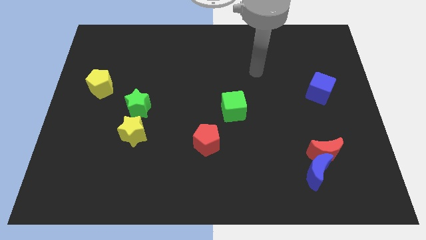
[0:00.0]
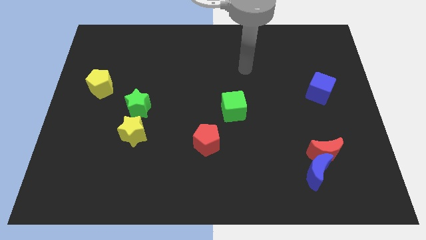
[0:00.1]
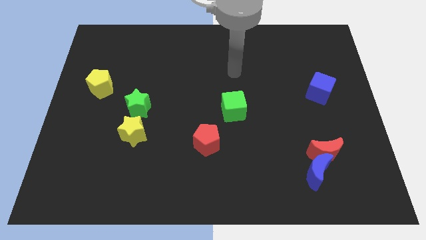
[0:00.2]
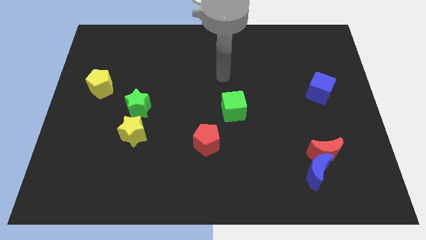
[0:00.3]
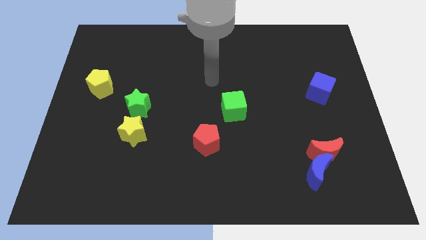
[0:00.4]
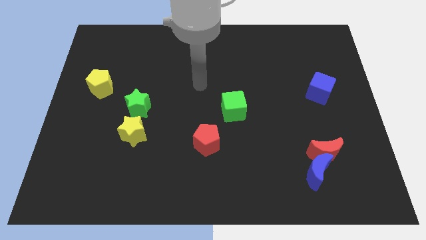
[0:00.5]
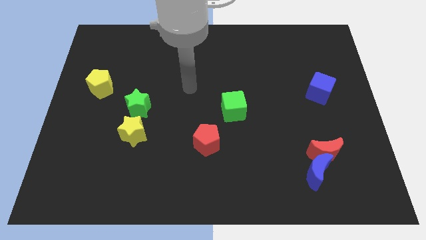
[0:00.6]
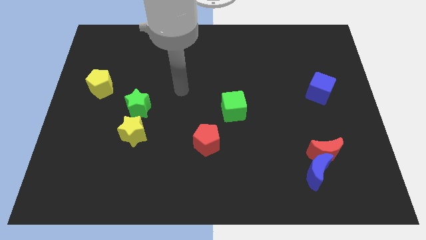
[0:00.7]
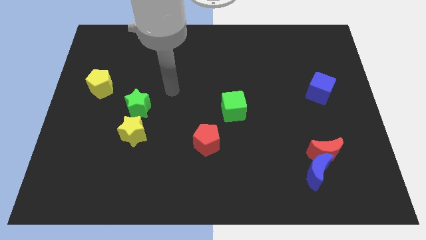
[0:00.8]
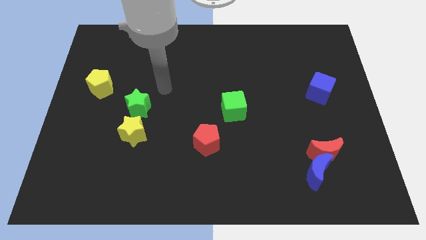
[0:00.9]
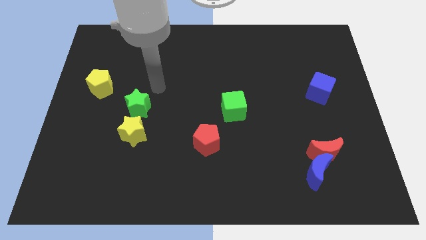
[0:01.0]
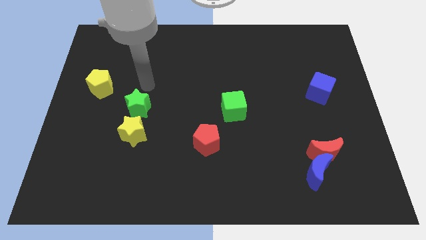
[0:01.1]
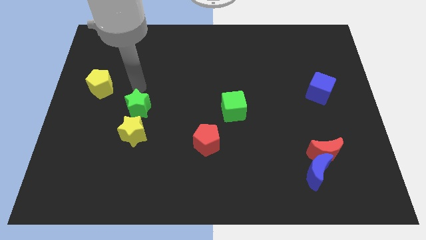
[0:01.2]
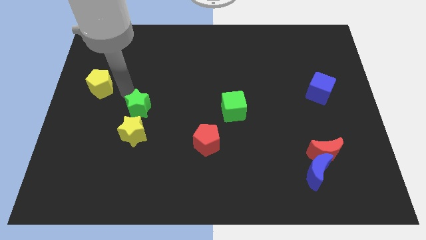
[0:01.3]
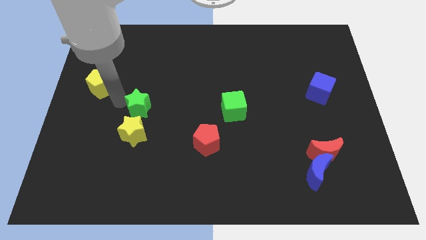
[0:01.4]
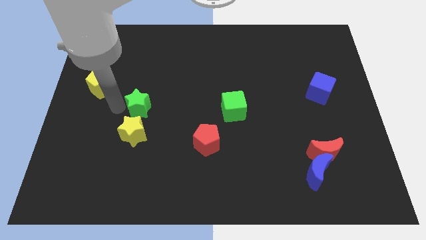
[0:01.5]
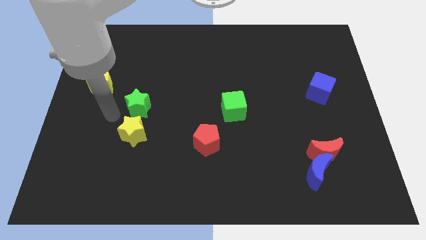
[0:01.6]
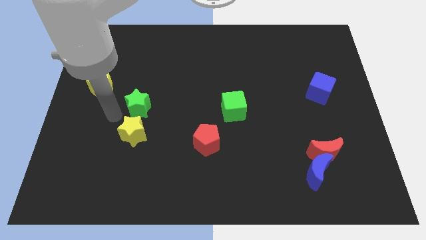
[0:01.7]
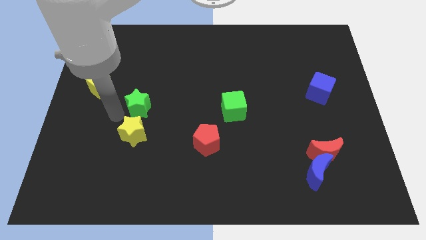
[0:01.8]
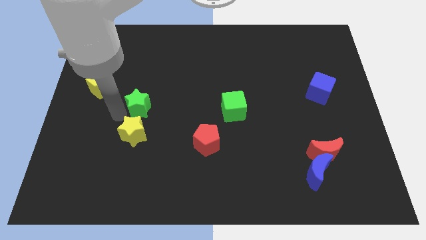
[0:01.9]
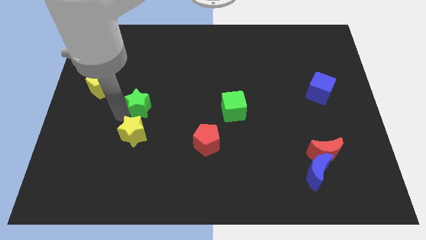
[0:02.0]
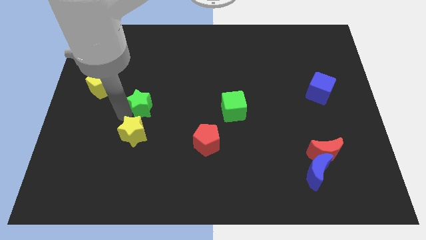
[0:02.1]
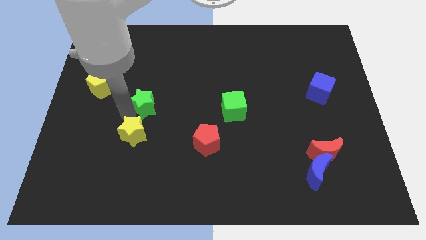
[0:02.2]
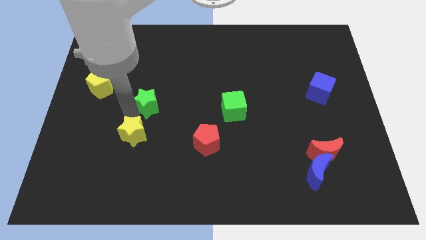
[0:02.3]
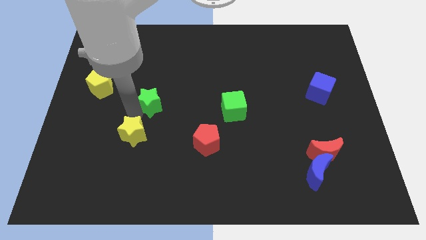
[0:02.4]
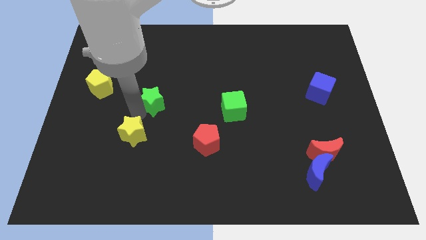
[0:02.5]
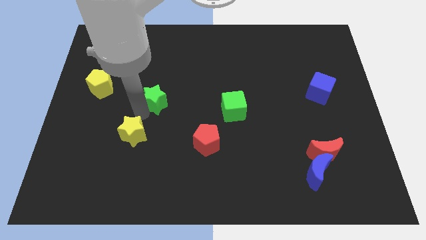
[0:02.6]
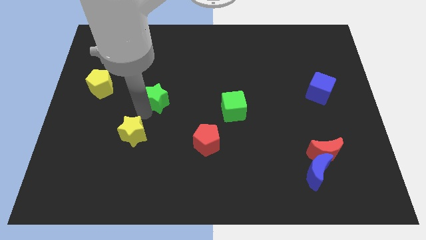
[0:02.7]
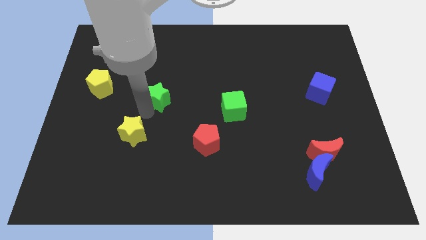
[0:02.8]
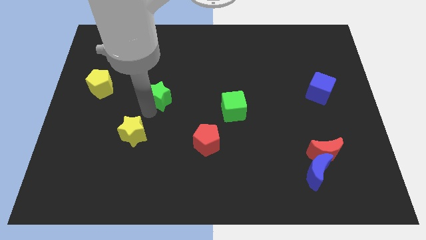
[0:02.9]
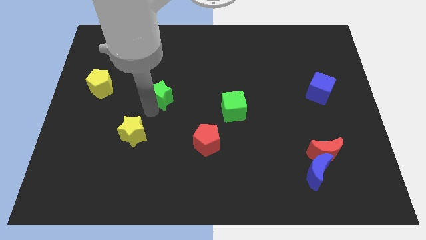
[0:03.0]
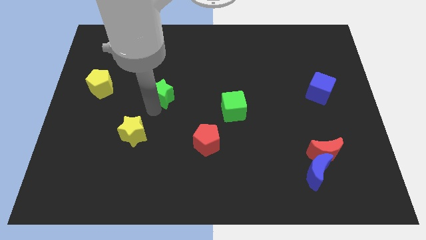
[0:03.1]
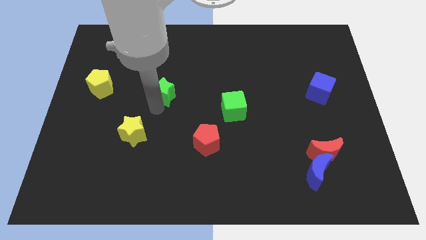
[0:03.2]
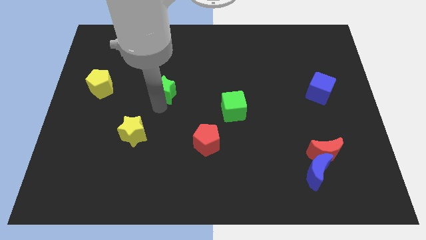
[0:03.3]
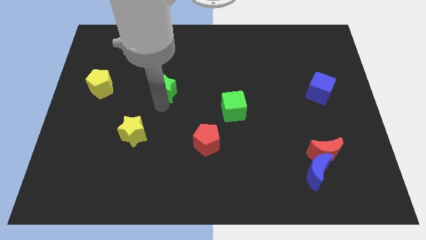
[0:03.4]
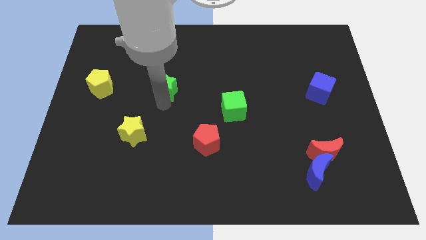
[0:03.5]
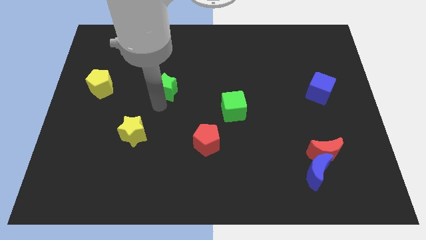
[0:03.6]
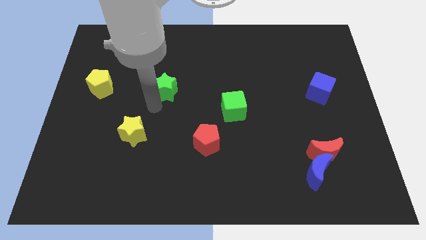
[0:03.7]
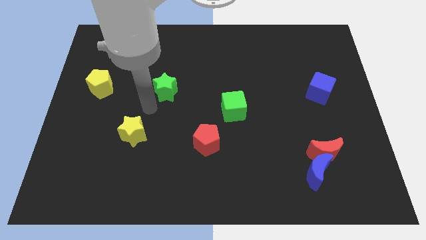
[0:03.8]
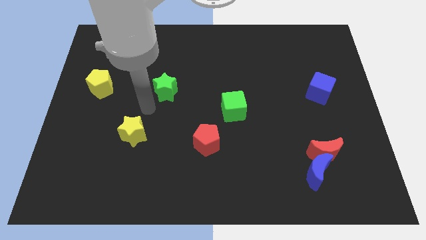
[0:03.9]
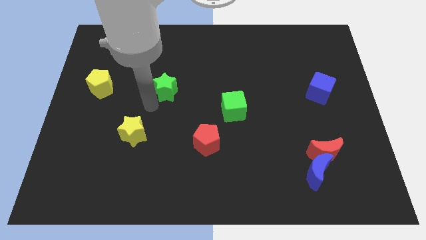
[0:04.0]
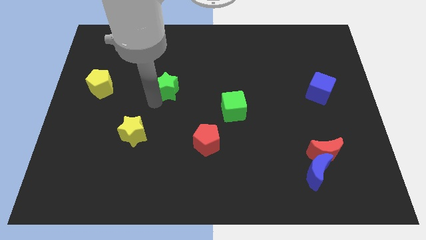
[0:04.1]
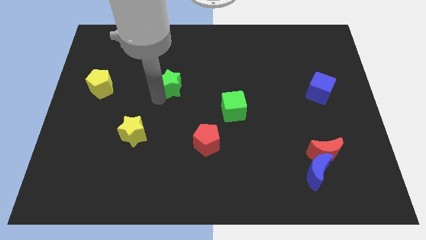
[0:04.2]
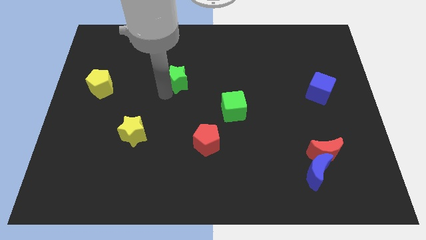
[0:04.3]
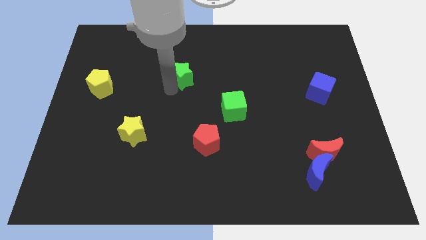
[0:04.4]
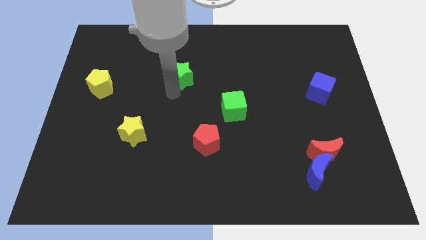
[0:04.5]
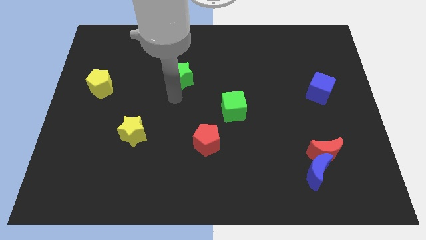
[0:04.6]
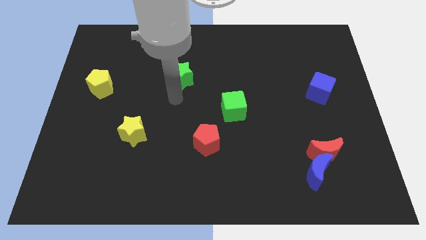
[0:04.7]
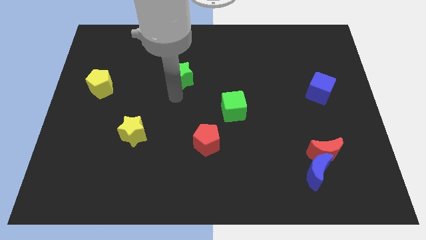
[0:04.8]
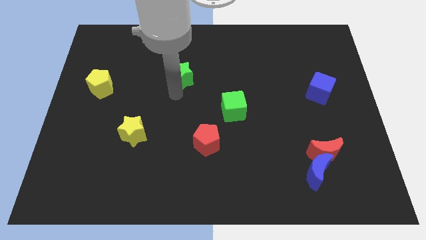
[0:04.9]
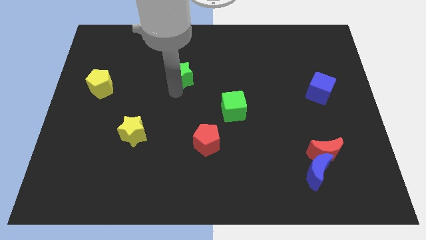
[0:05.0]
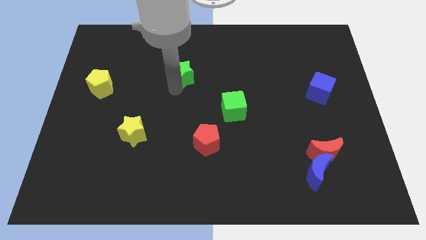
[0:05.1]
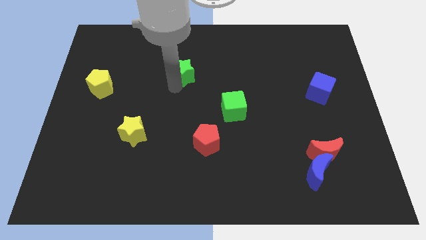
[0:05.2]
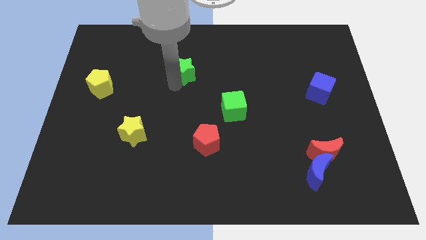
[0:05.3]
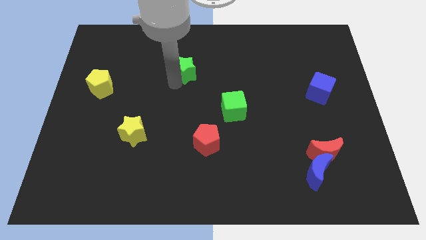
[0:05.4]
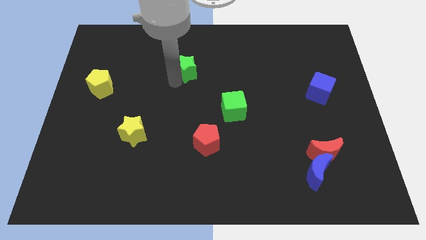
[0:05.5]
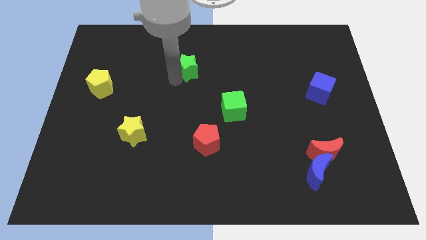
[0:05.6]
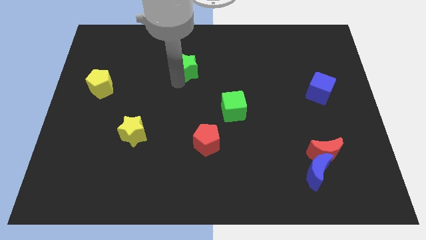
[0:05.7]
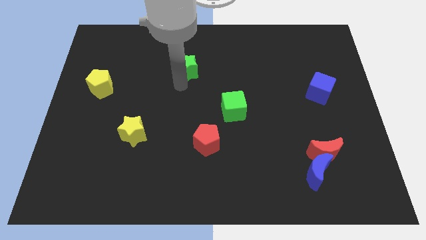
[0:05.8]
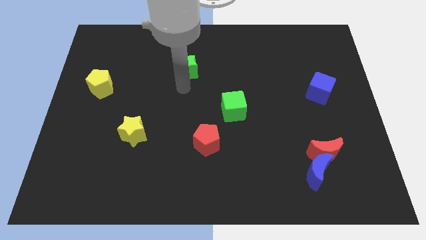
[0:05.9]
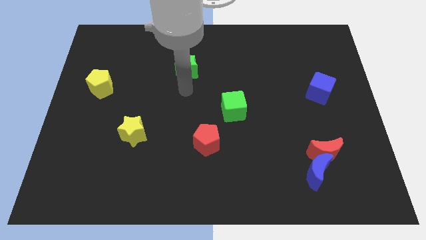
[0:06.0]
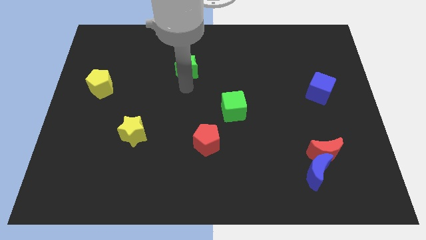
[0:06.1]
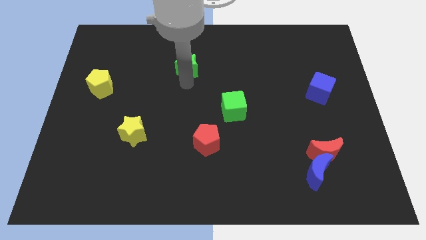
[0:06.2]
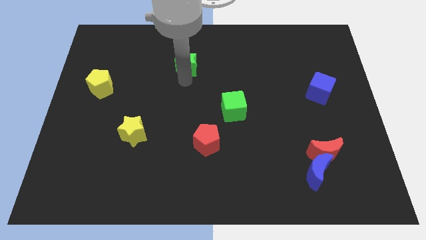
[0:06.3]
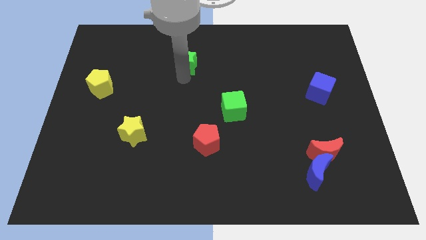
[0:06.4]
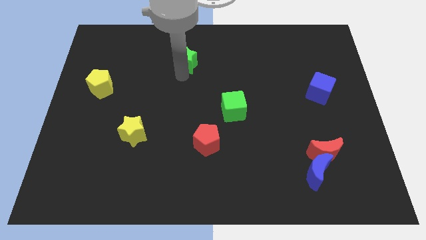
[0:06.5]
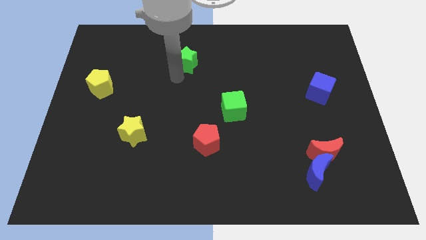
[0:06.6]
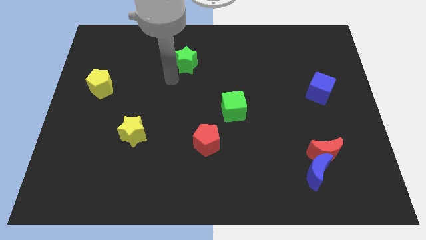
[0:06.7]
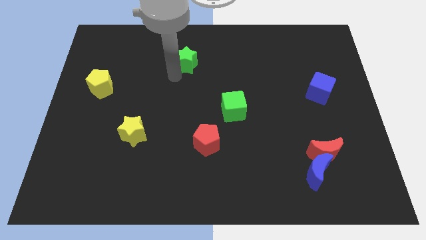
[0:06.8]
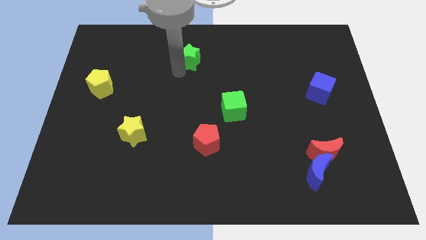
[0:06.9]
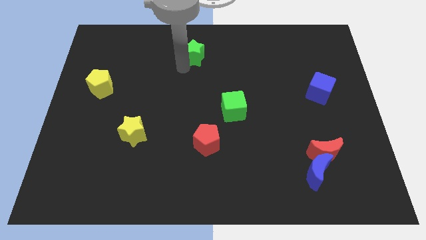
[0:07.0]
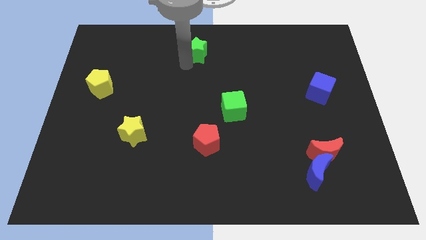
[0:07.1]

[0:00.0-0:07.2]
move the green star to the top
